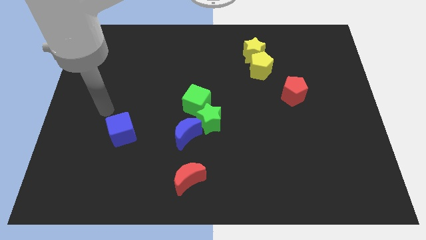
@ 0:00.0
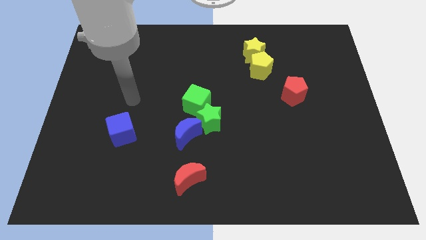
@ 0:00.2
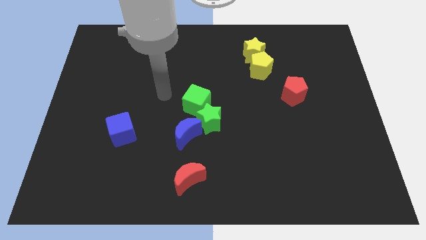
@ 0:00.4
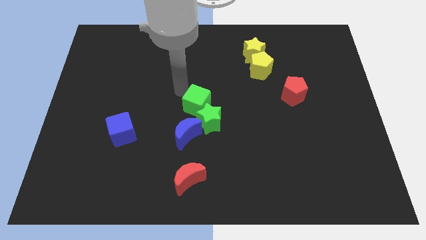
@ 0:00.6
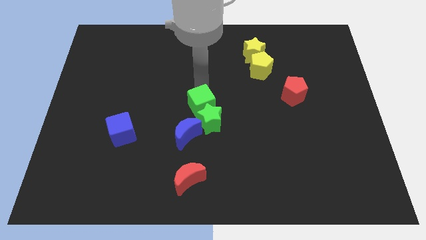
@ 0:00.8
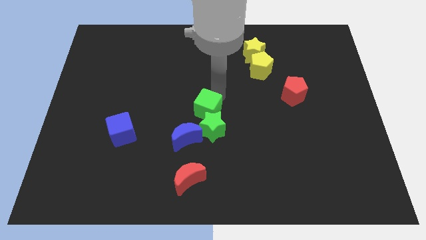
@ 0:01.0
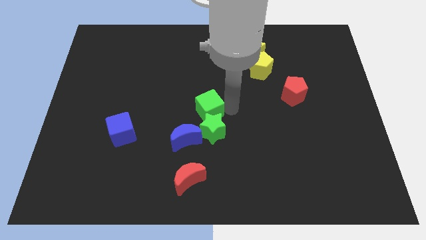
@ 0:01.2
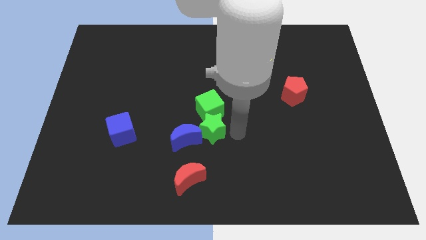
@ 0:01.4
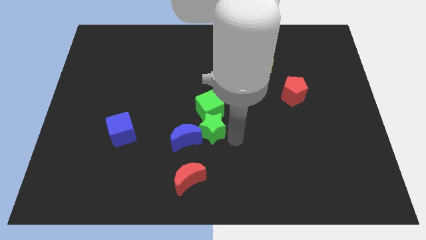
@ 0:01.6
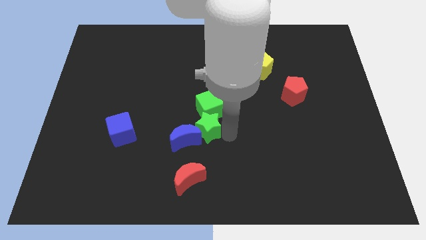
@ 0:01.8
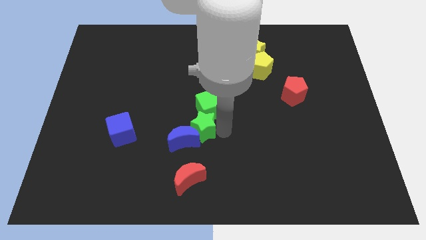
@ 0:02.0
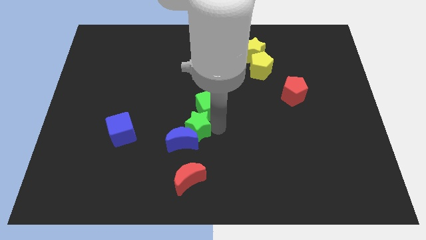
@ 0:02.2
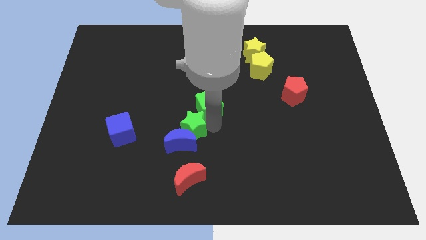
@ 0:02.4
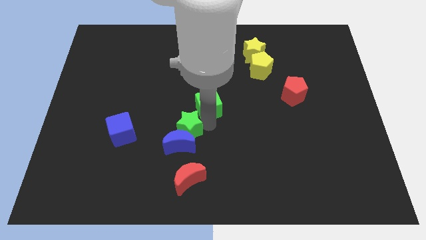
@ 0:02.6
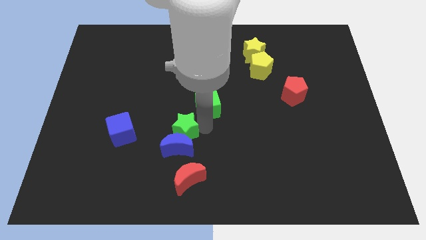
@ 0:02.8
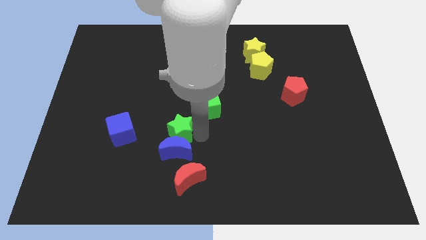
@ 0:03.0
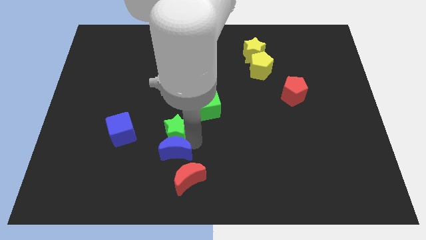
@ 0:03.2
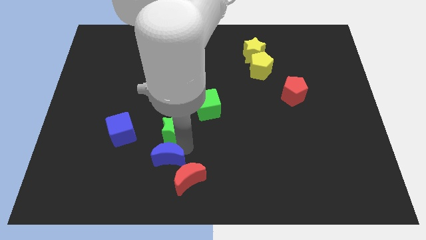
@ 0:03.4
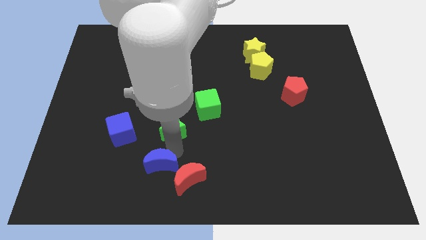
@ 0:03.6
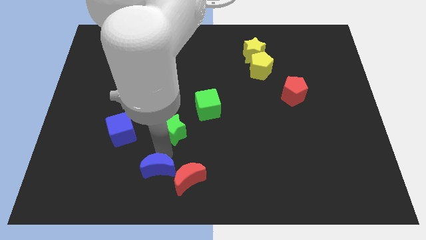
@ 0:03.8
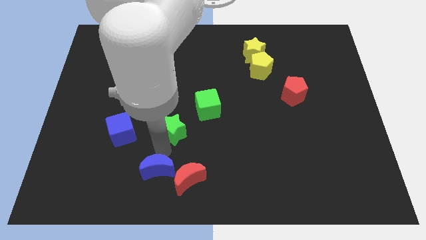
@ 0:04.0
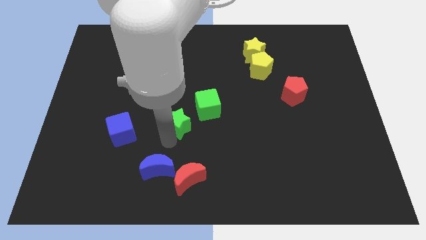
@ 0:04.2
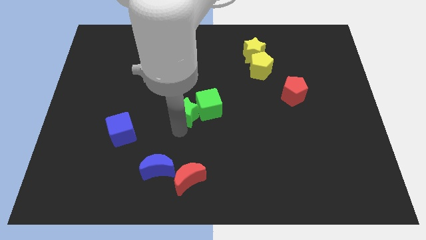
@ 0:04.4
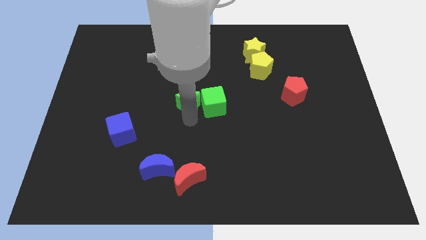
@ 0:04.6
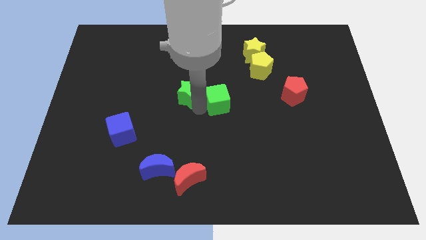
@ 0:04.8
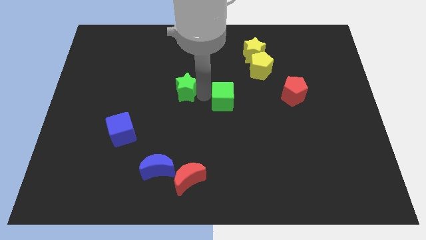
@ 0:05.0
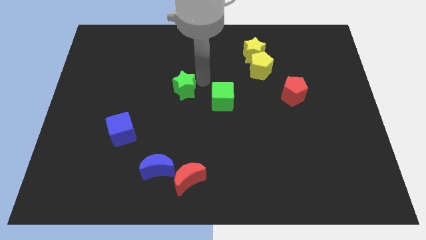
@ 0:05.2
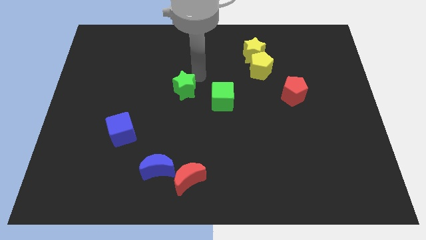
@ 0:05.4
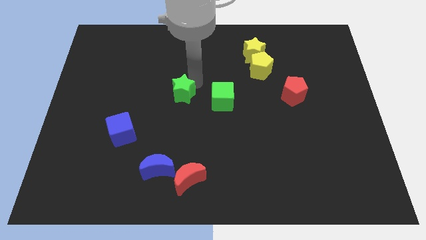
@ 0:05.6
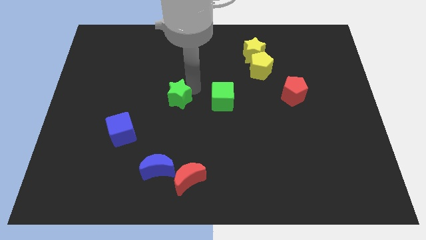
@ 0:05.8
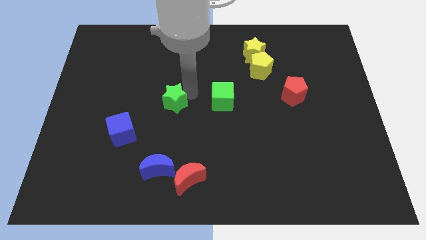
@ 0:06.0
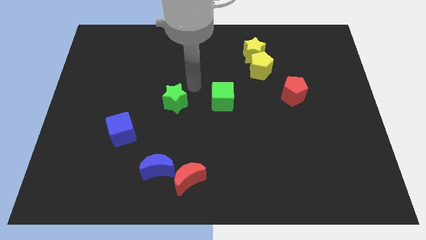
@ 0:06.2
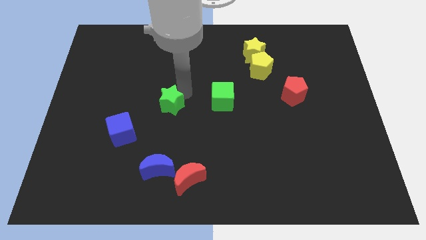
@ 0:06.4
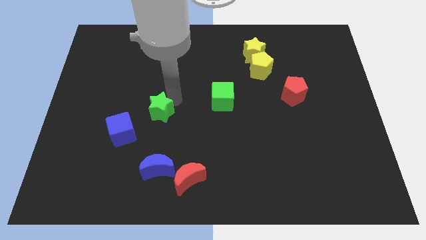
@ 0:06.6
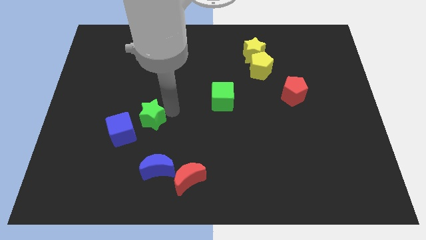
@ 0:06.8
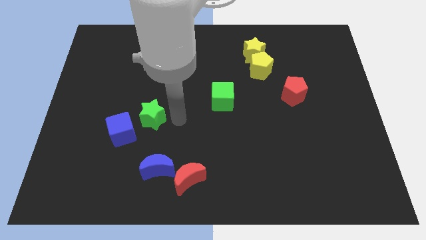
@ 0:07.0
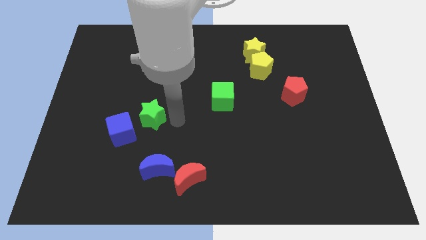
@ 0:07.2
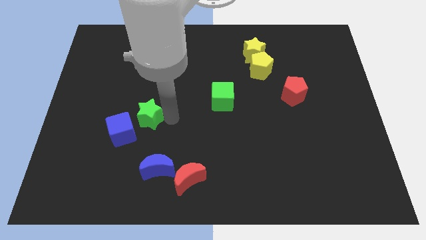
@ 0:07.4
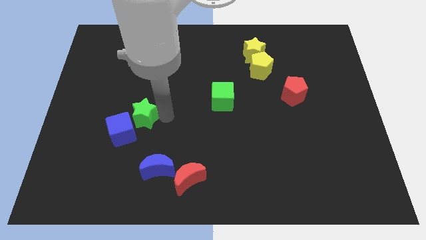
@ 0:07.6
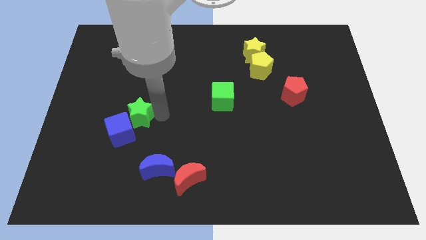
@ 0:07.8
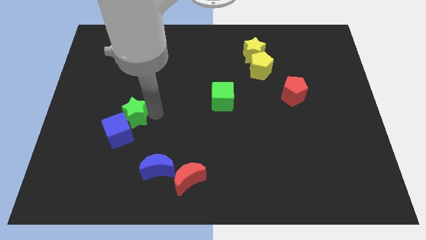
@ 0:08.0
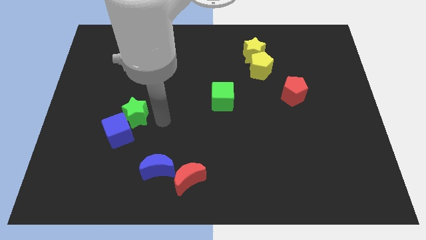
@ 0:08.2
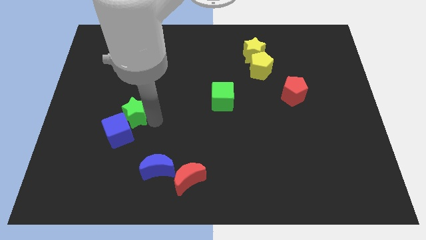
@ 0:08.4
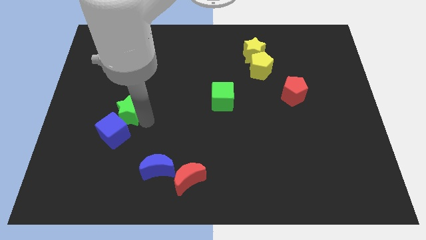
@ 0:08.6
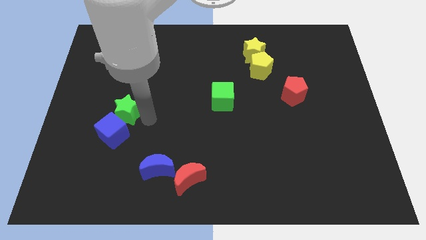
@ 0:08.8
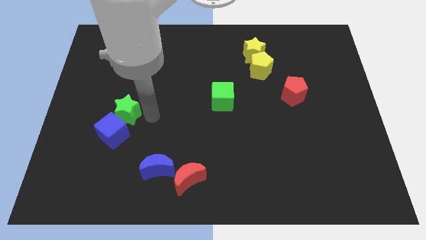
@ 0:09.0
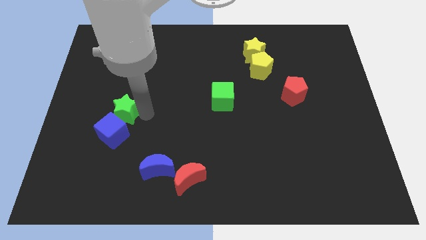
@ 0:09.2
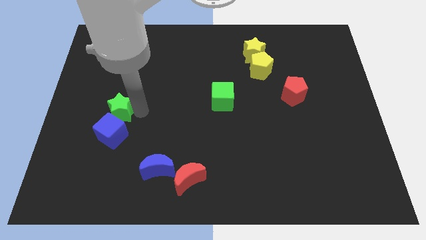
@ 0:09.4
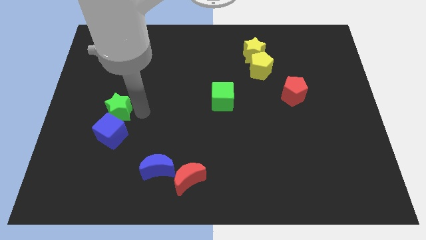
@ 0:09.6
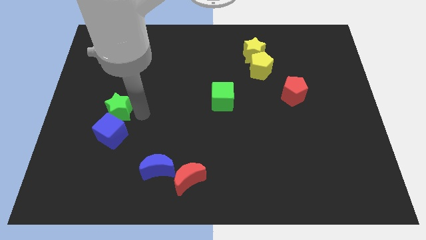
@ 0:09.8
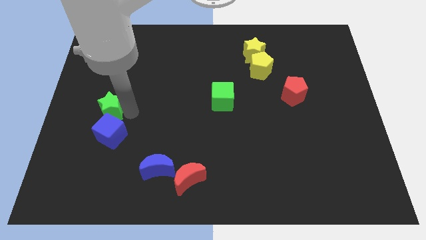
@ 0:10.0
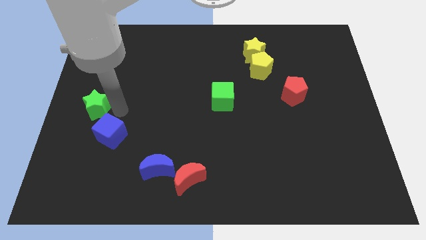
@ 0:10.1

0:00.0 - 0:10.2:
put the green star to the center left

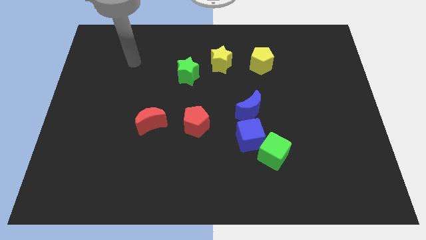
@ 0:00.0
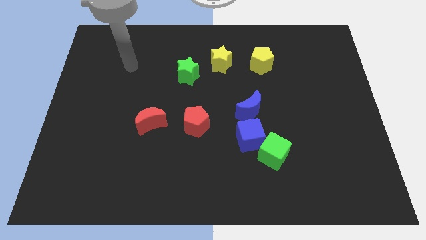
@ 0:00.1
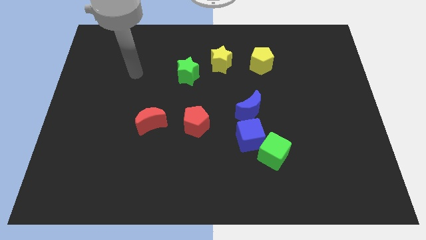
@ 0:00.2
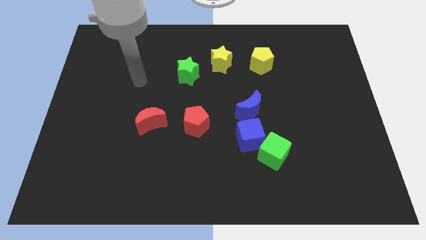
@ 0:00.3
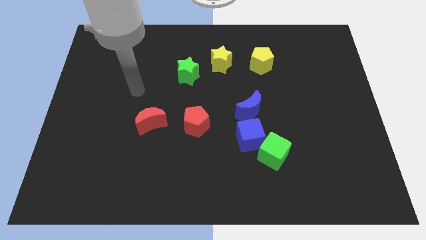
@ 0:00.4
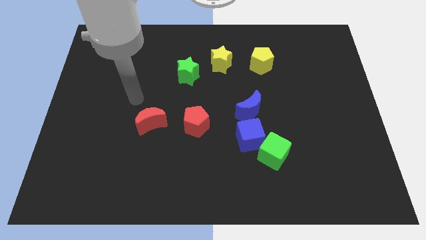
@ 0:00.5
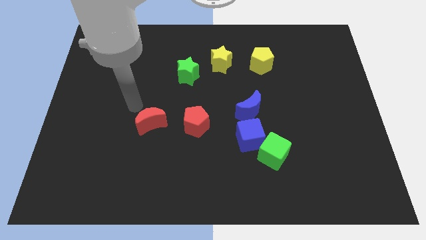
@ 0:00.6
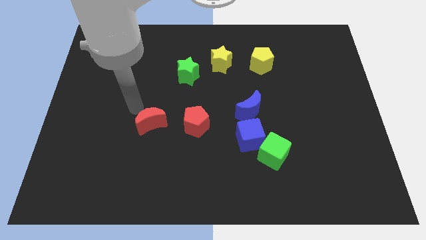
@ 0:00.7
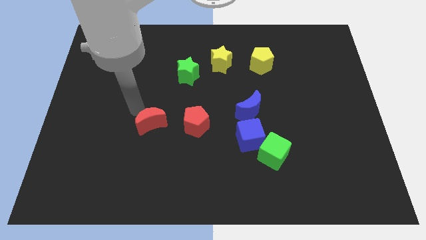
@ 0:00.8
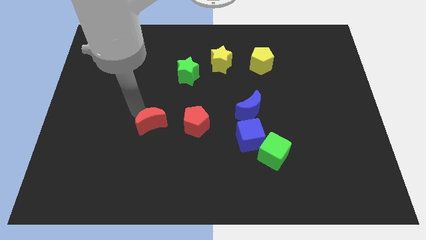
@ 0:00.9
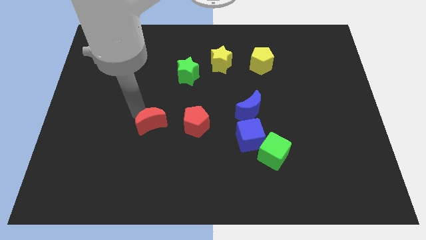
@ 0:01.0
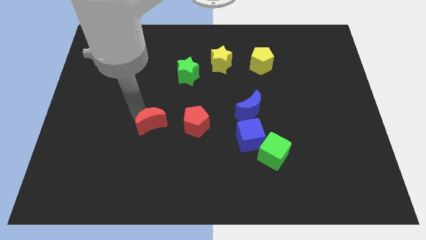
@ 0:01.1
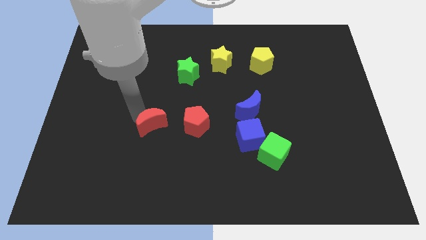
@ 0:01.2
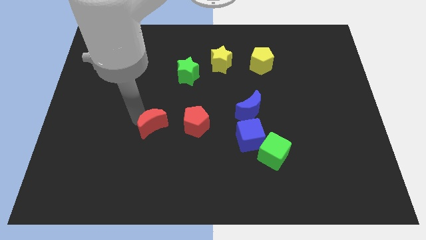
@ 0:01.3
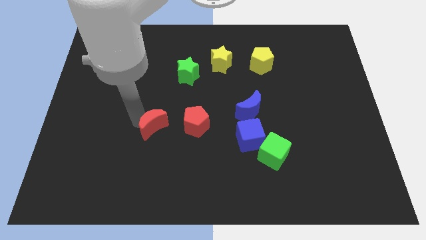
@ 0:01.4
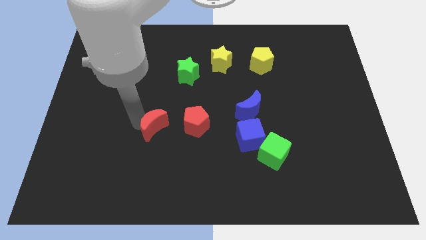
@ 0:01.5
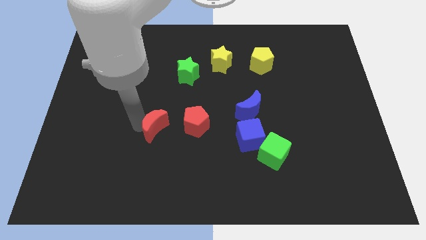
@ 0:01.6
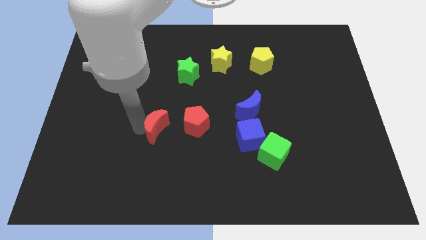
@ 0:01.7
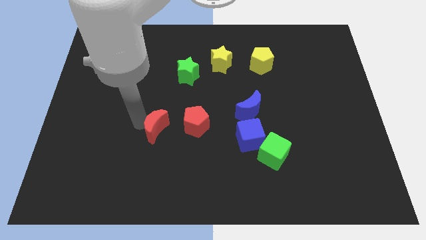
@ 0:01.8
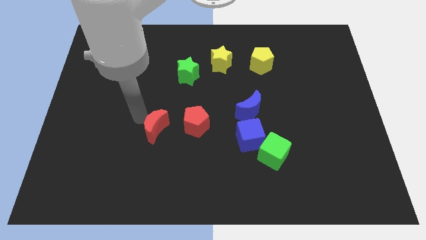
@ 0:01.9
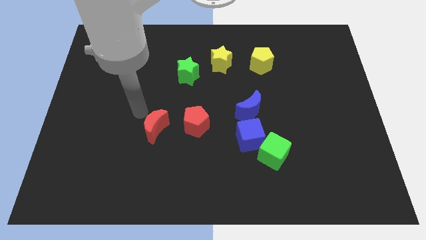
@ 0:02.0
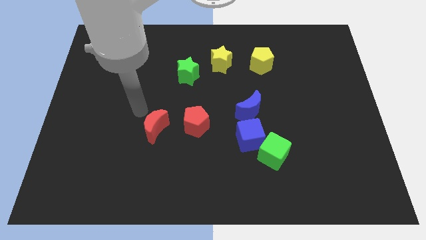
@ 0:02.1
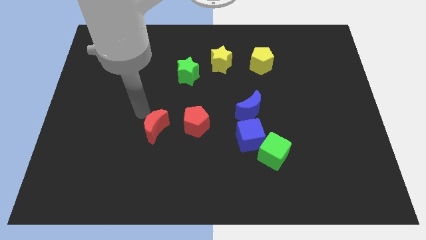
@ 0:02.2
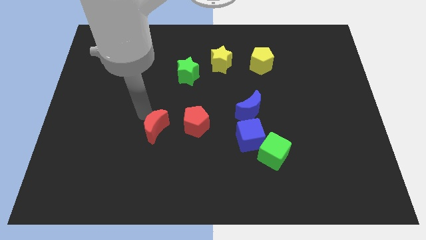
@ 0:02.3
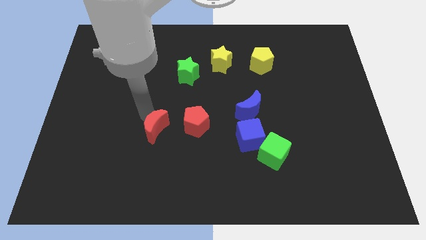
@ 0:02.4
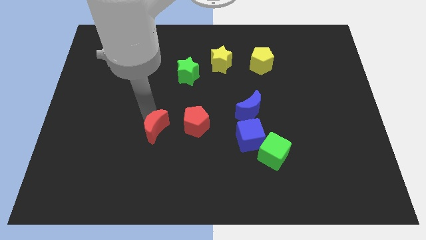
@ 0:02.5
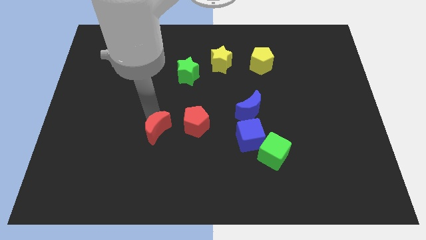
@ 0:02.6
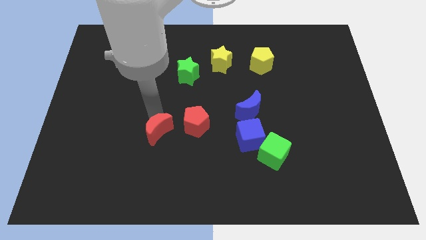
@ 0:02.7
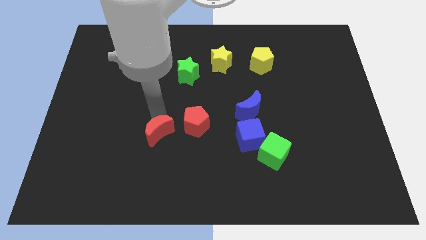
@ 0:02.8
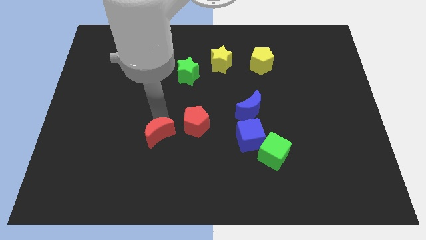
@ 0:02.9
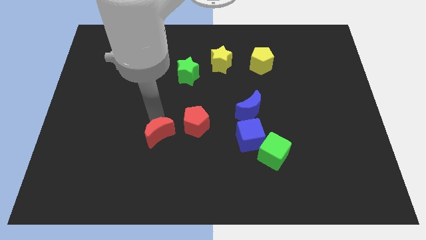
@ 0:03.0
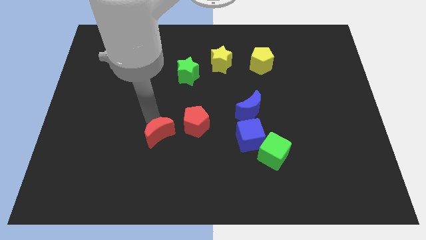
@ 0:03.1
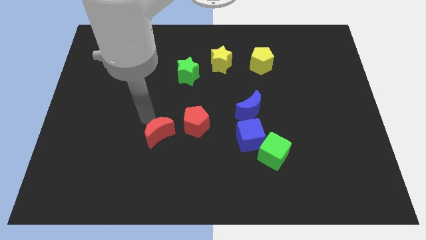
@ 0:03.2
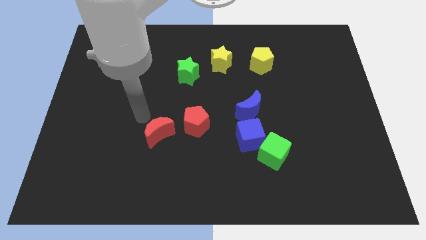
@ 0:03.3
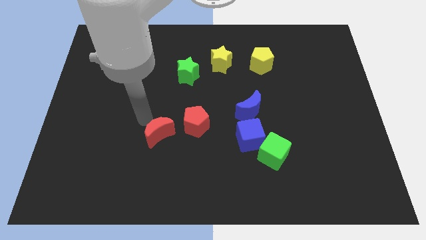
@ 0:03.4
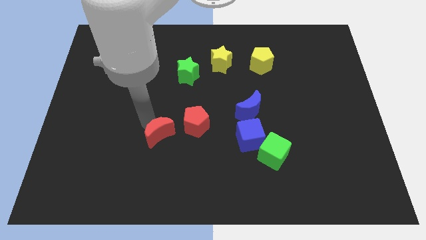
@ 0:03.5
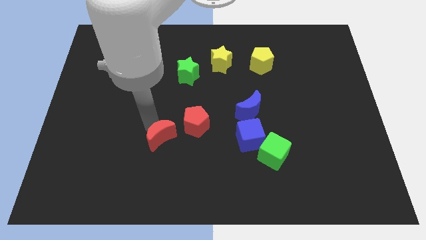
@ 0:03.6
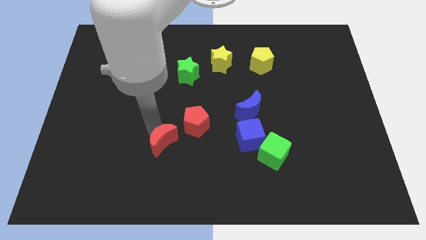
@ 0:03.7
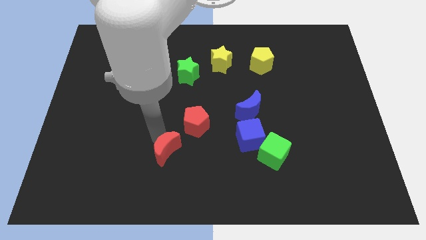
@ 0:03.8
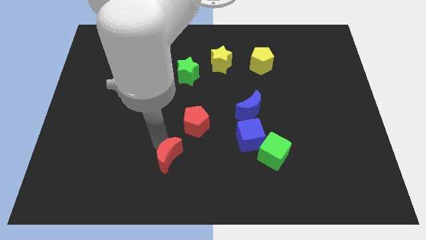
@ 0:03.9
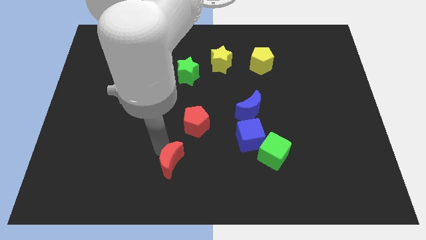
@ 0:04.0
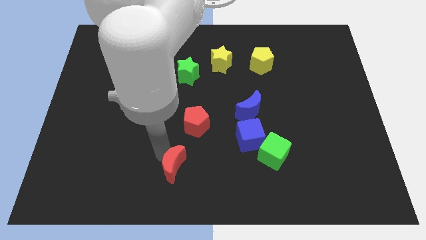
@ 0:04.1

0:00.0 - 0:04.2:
put the red moon to the bottom
